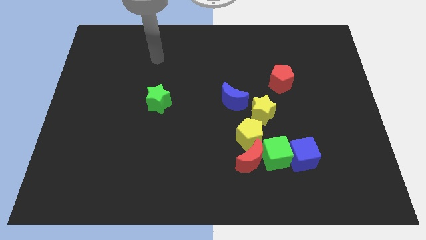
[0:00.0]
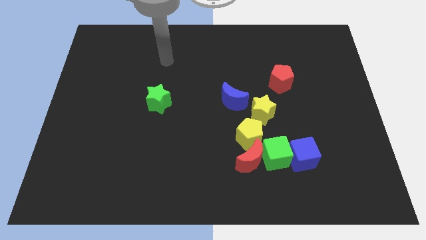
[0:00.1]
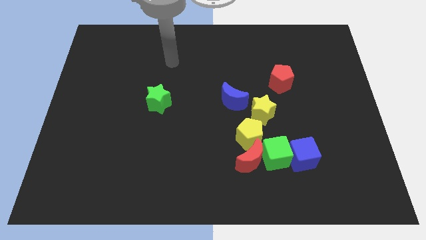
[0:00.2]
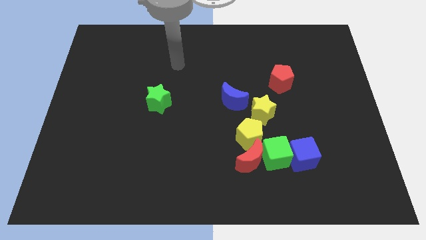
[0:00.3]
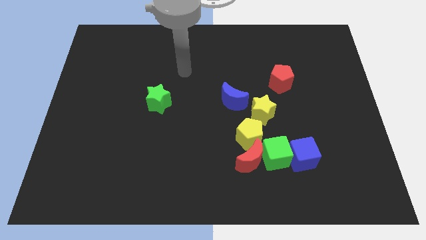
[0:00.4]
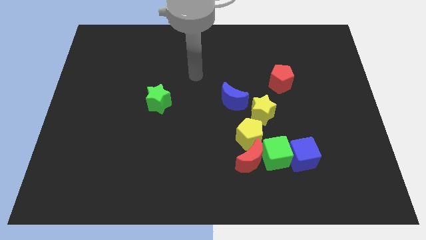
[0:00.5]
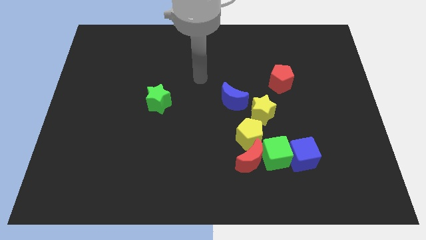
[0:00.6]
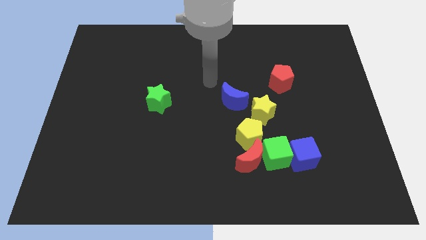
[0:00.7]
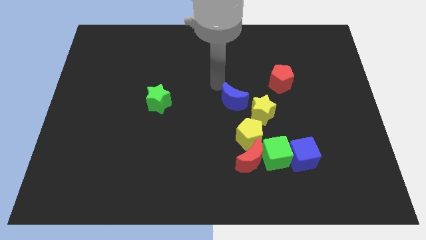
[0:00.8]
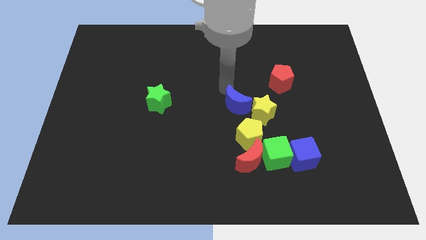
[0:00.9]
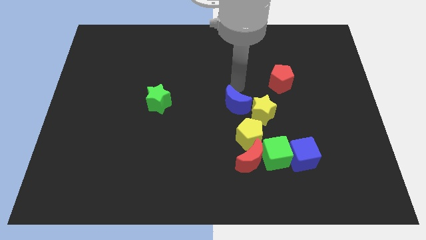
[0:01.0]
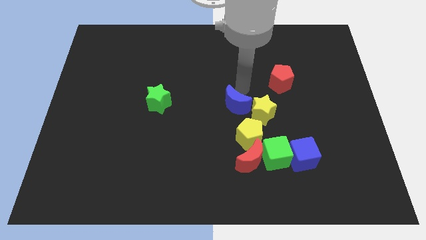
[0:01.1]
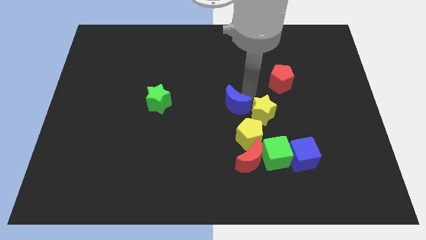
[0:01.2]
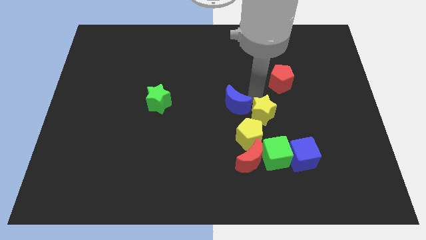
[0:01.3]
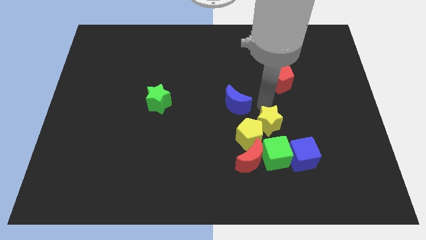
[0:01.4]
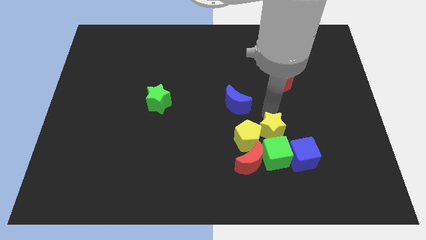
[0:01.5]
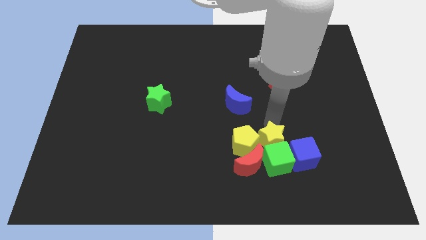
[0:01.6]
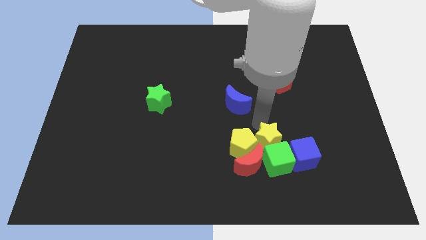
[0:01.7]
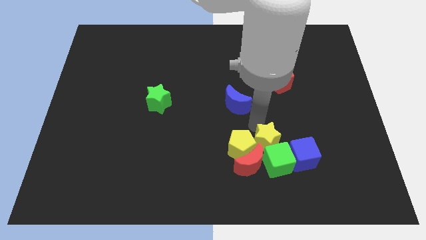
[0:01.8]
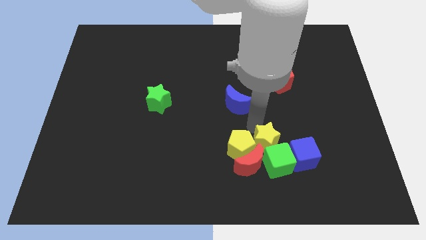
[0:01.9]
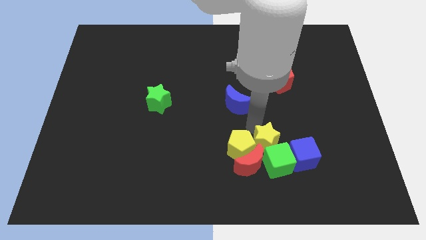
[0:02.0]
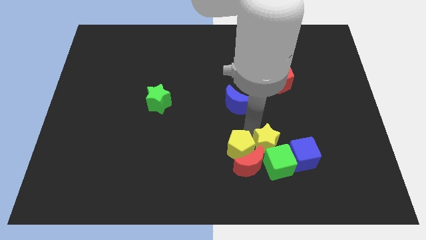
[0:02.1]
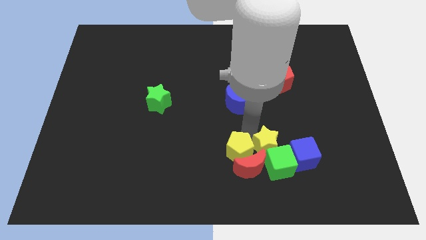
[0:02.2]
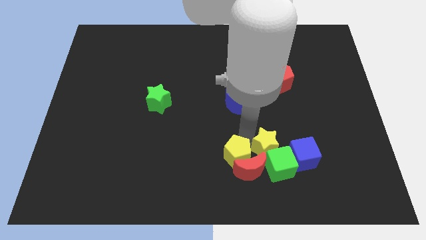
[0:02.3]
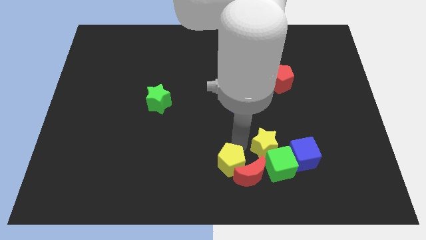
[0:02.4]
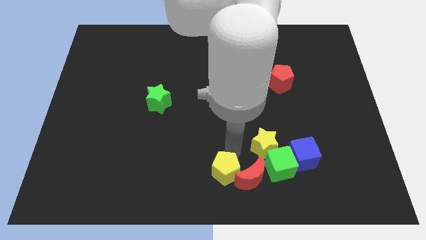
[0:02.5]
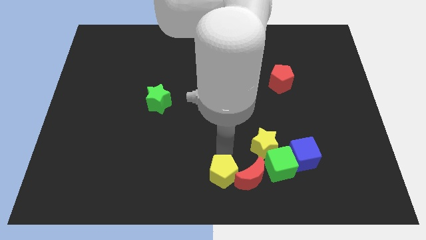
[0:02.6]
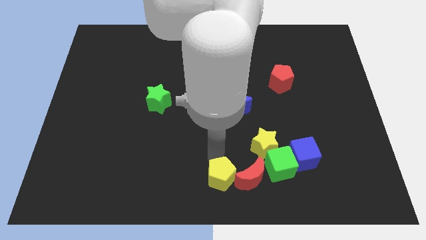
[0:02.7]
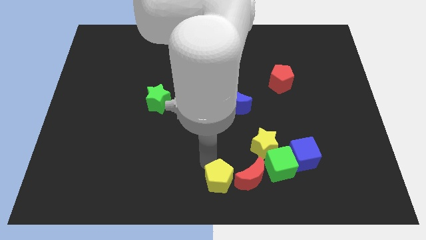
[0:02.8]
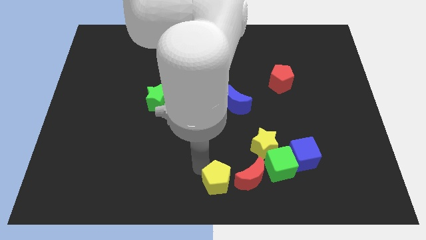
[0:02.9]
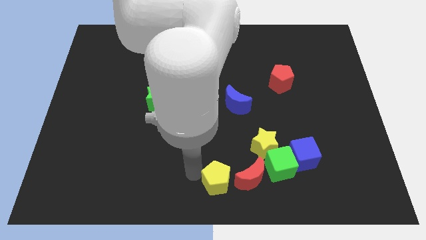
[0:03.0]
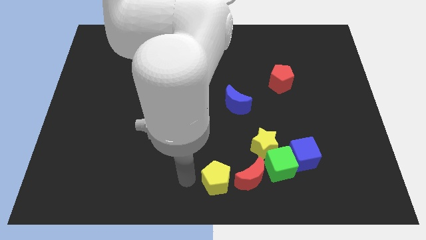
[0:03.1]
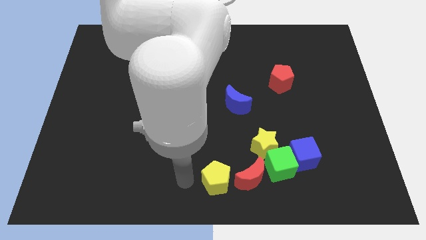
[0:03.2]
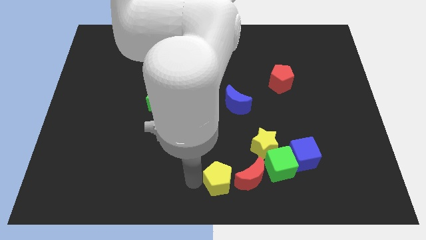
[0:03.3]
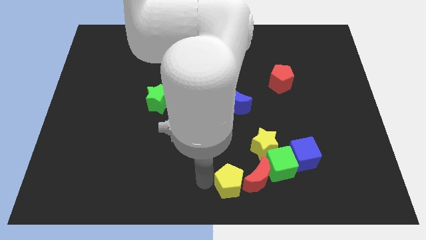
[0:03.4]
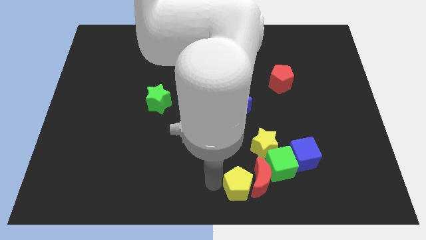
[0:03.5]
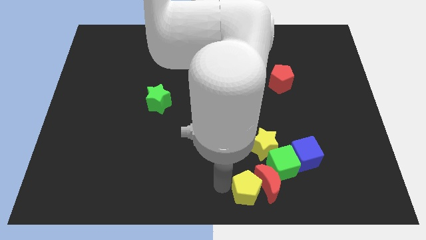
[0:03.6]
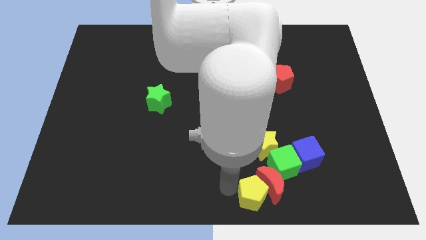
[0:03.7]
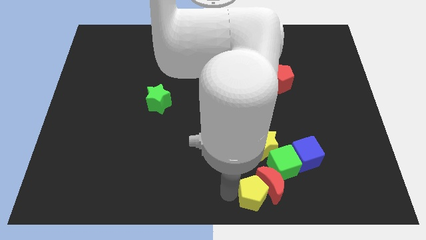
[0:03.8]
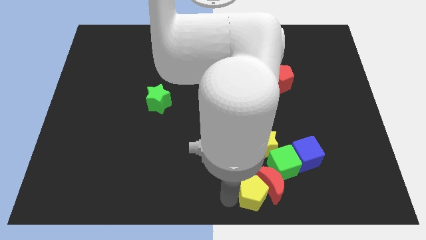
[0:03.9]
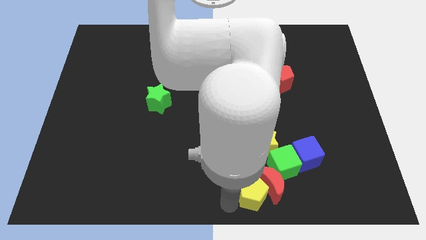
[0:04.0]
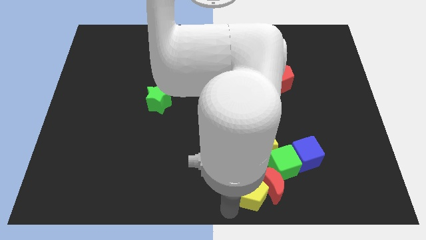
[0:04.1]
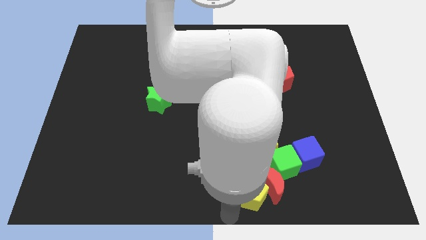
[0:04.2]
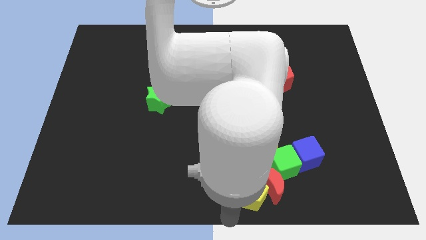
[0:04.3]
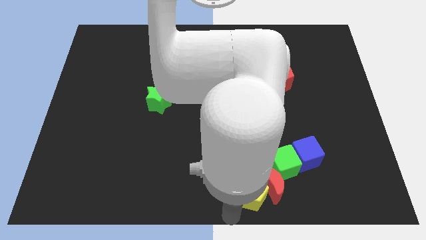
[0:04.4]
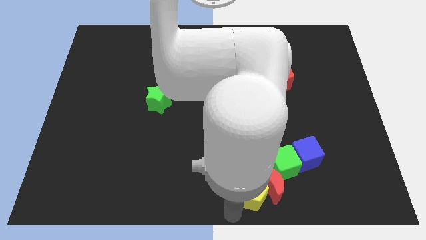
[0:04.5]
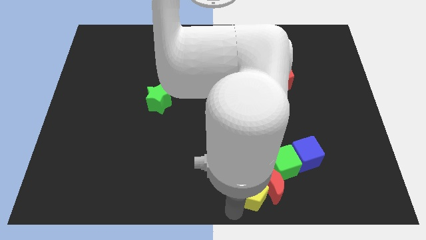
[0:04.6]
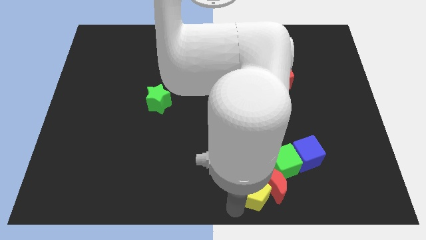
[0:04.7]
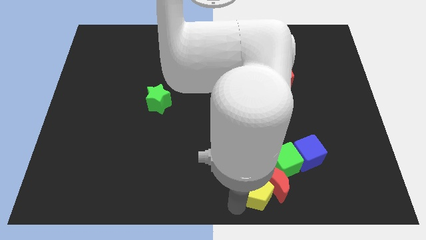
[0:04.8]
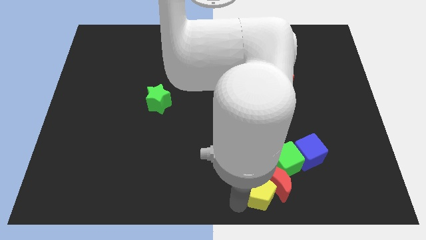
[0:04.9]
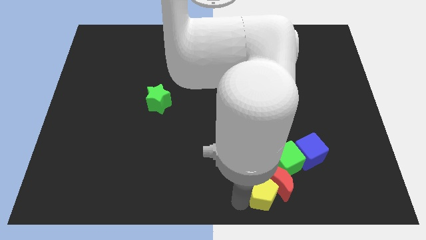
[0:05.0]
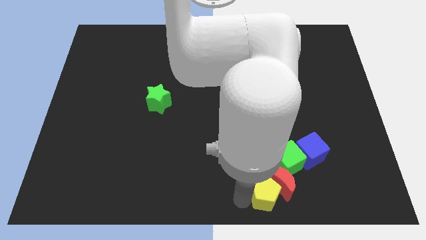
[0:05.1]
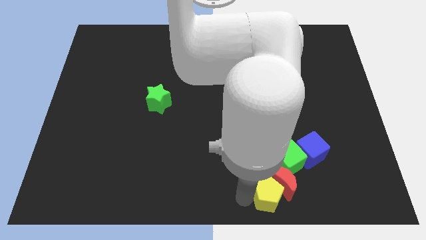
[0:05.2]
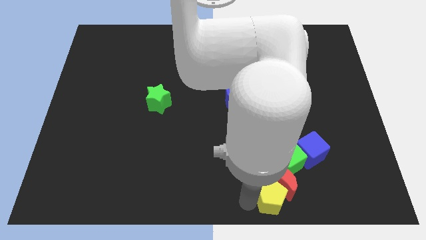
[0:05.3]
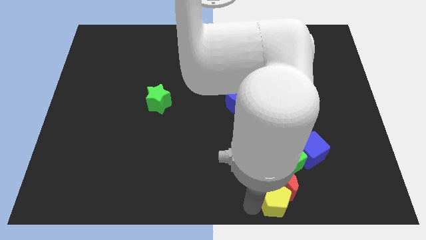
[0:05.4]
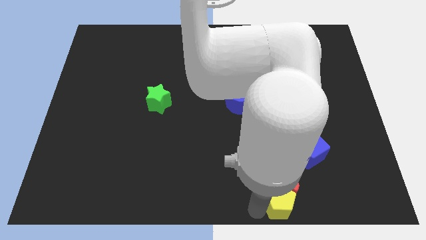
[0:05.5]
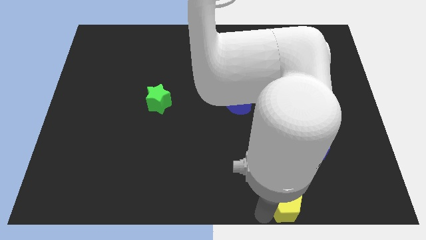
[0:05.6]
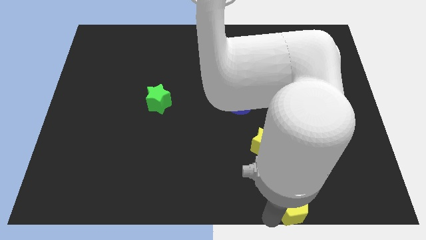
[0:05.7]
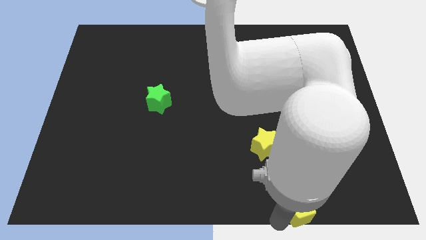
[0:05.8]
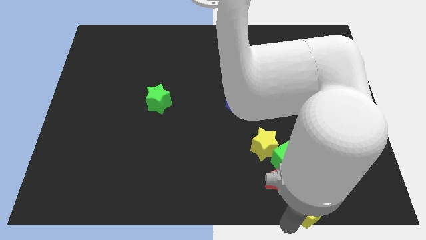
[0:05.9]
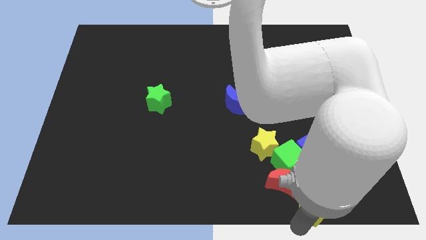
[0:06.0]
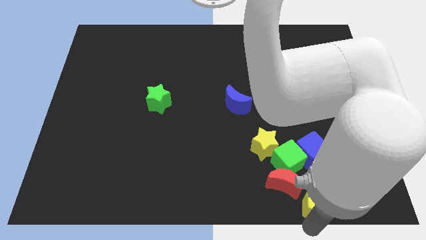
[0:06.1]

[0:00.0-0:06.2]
push the yellow pentagon to the bottom right of the green cube

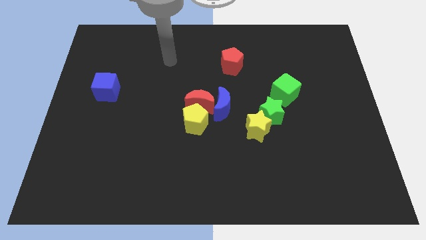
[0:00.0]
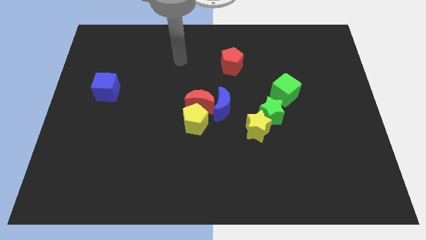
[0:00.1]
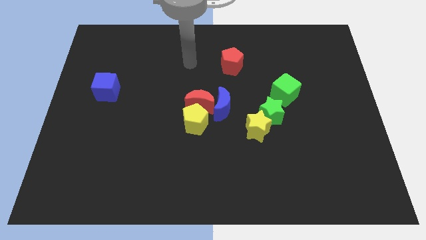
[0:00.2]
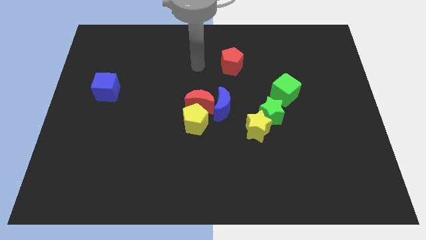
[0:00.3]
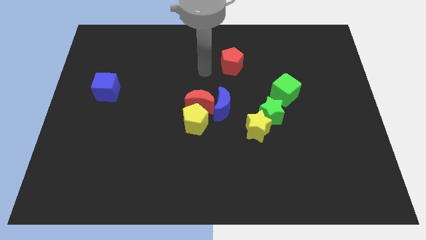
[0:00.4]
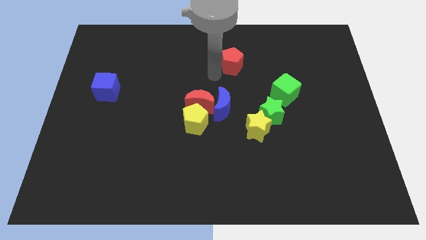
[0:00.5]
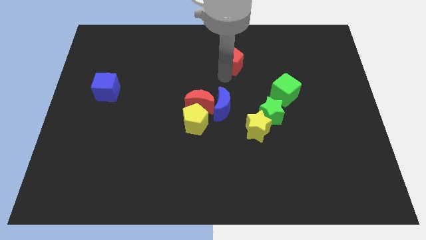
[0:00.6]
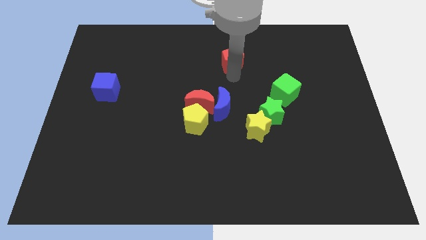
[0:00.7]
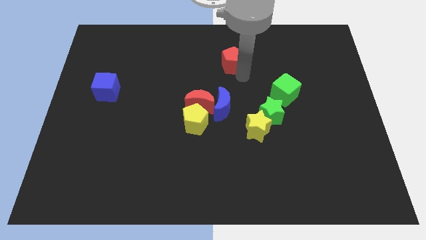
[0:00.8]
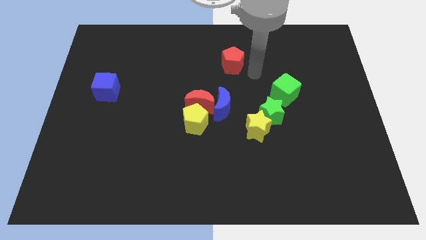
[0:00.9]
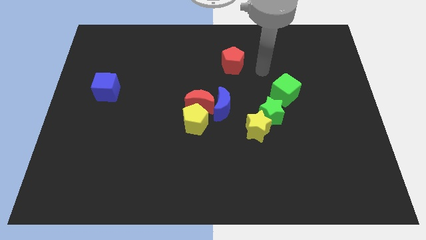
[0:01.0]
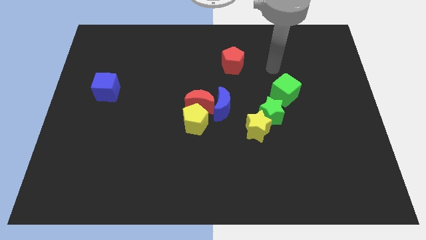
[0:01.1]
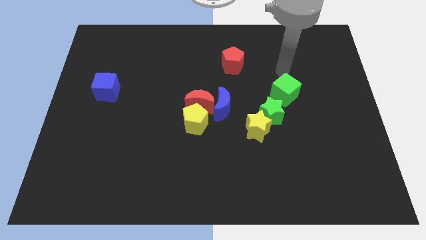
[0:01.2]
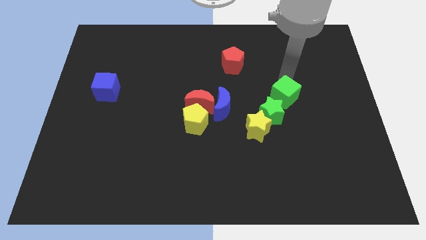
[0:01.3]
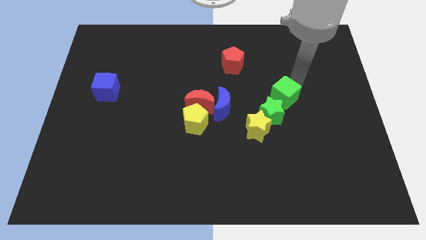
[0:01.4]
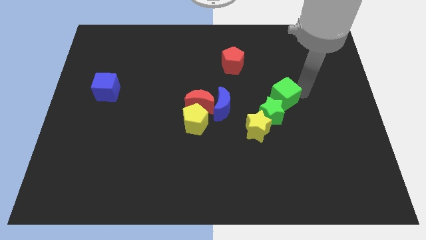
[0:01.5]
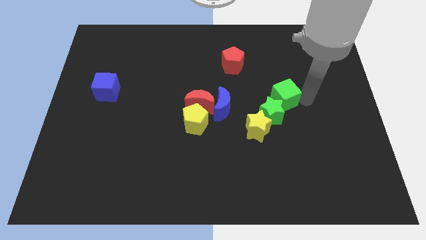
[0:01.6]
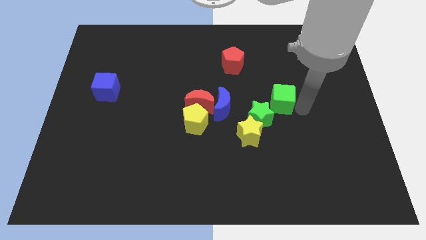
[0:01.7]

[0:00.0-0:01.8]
put the green star to the right side of the yellow pentagon
